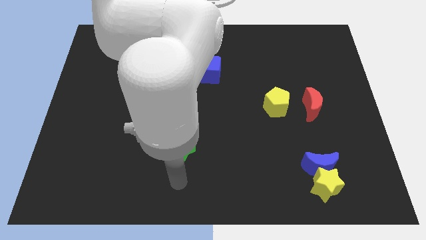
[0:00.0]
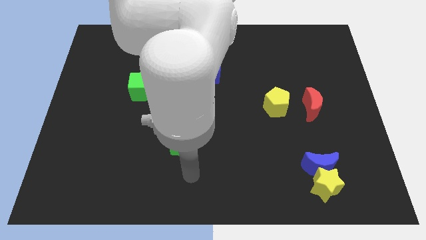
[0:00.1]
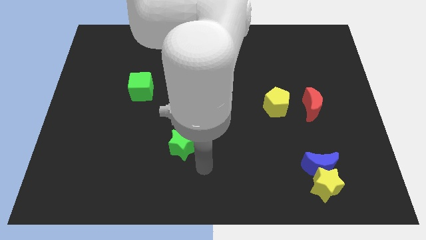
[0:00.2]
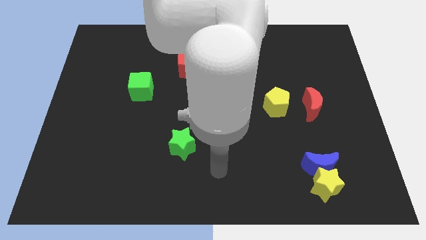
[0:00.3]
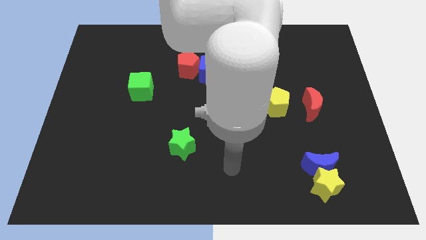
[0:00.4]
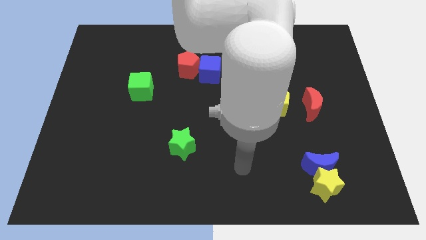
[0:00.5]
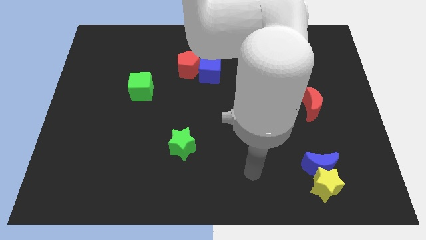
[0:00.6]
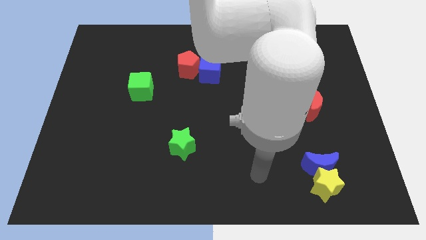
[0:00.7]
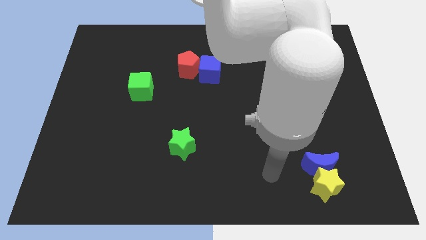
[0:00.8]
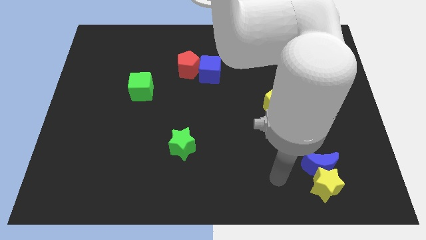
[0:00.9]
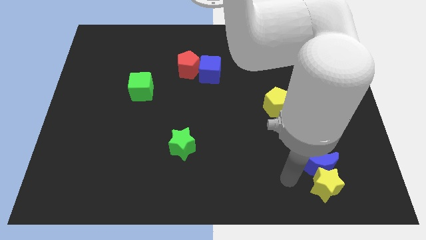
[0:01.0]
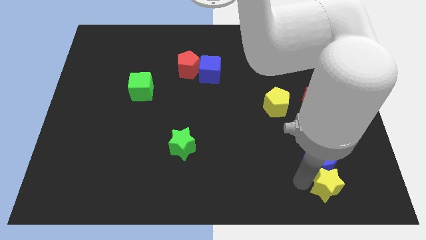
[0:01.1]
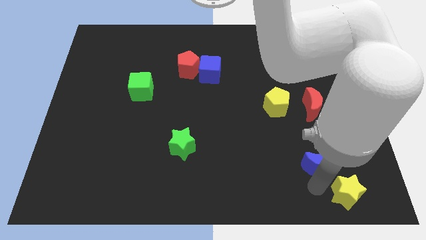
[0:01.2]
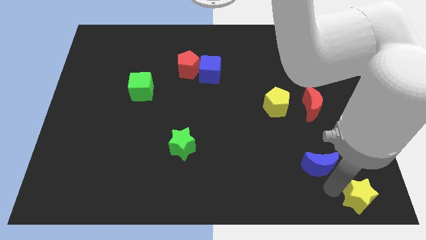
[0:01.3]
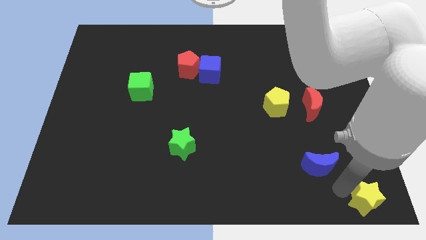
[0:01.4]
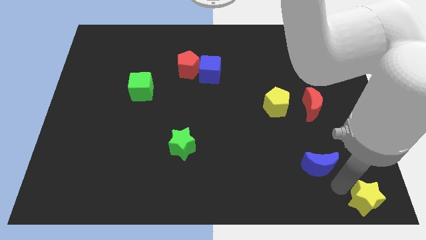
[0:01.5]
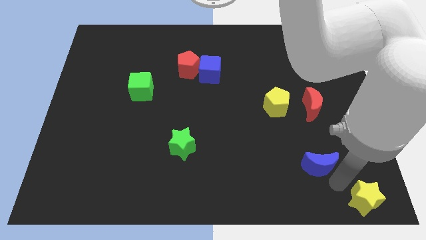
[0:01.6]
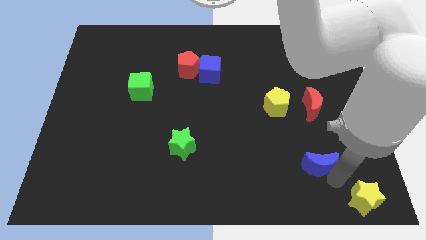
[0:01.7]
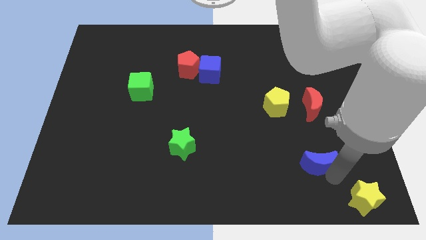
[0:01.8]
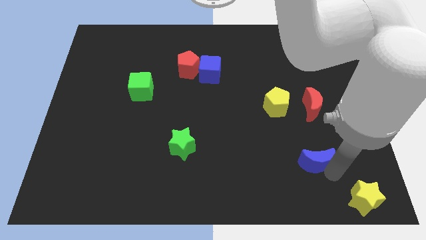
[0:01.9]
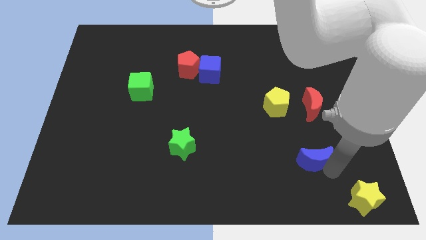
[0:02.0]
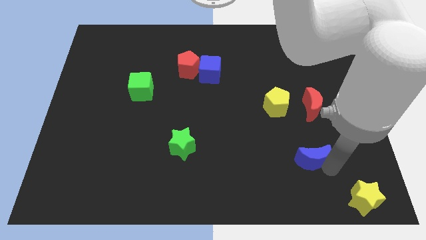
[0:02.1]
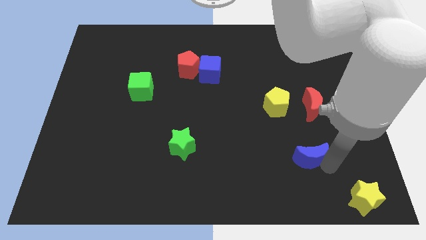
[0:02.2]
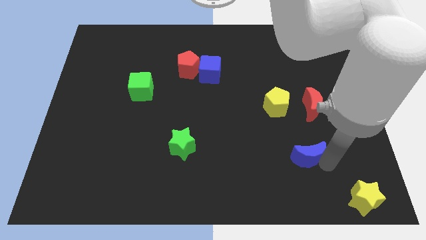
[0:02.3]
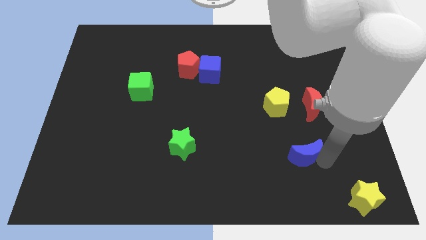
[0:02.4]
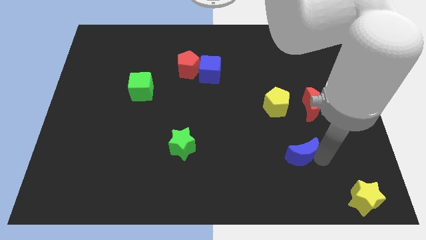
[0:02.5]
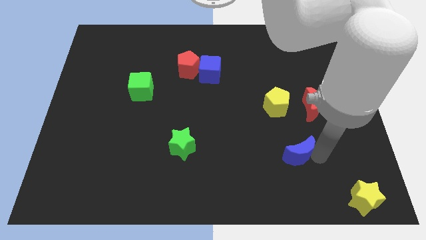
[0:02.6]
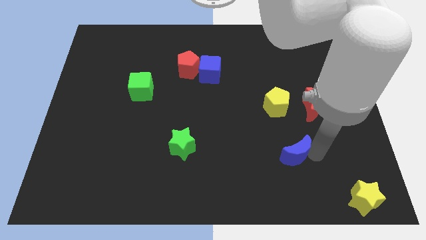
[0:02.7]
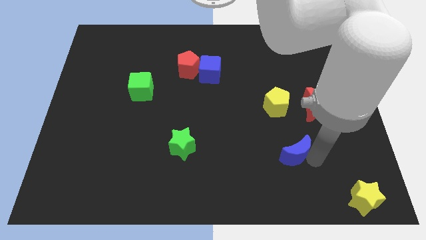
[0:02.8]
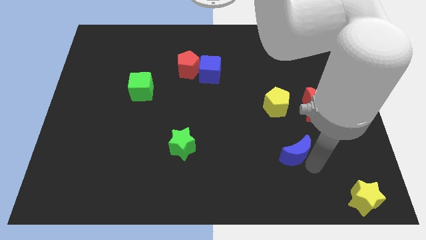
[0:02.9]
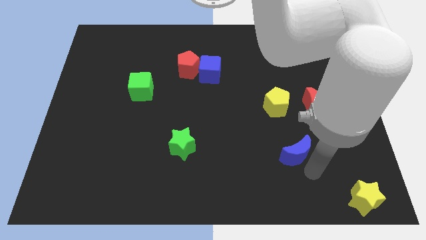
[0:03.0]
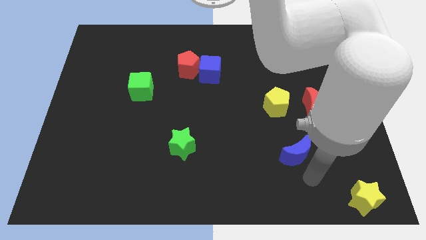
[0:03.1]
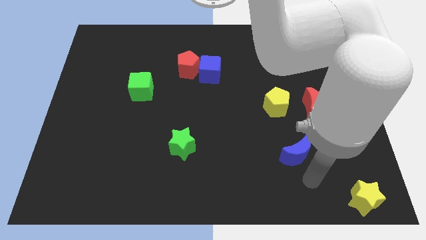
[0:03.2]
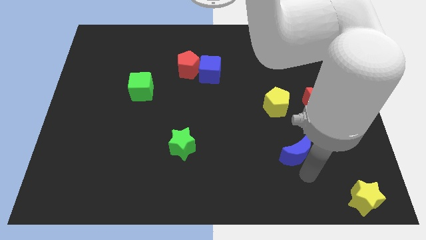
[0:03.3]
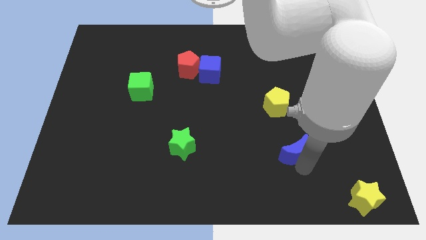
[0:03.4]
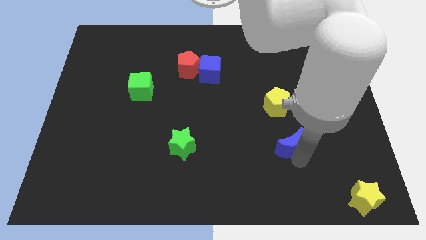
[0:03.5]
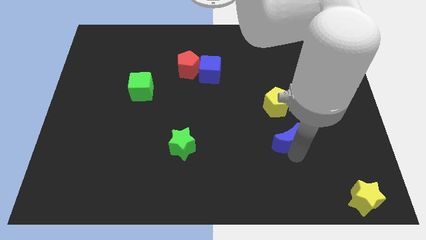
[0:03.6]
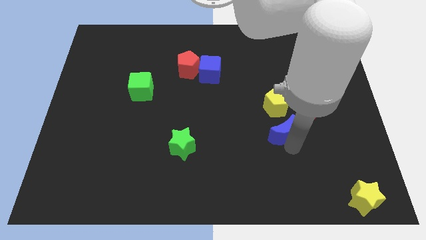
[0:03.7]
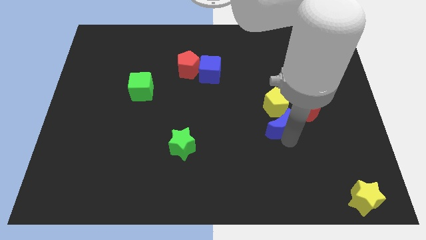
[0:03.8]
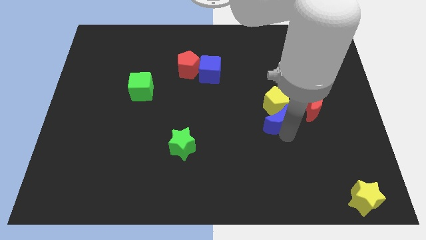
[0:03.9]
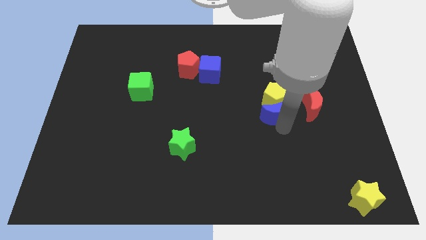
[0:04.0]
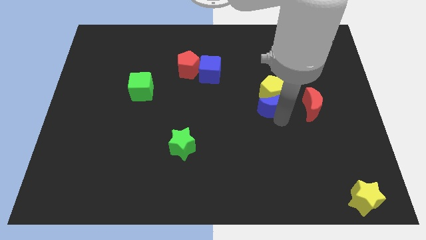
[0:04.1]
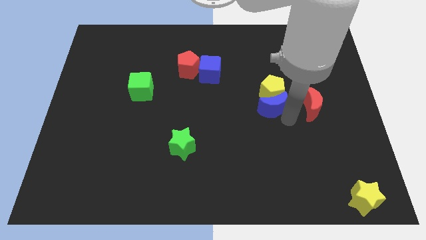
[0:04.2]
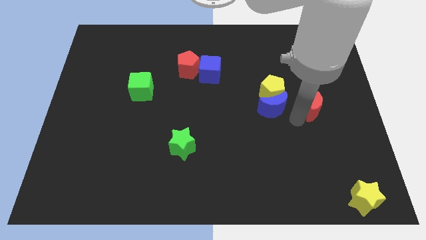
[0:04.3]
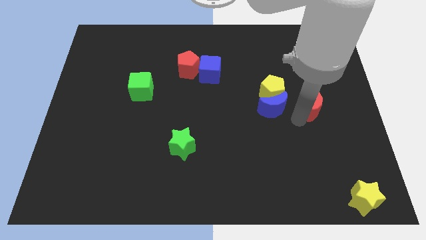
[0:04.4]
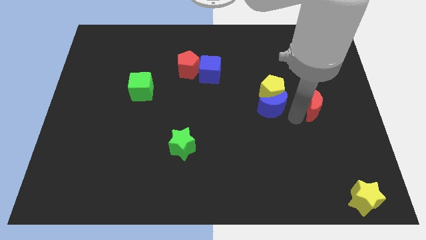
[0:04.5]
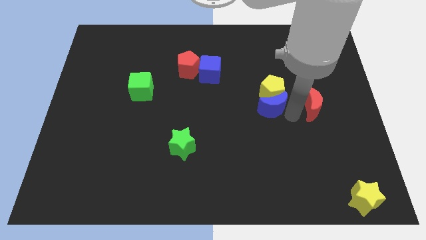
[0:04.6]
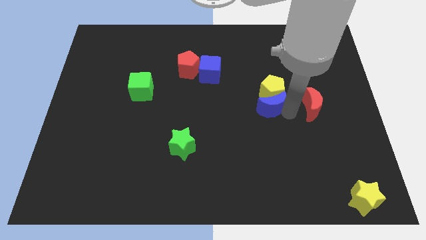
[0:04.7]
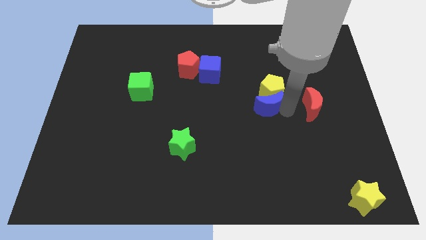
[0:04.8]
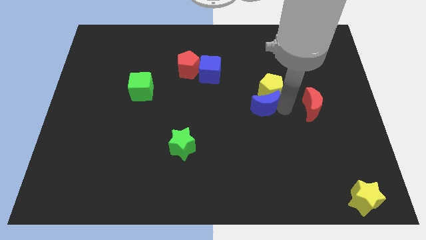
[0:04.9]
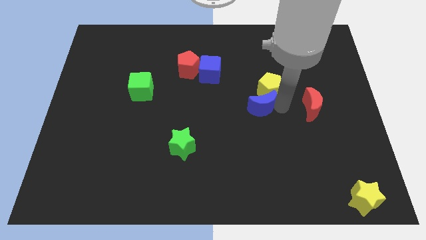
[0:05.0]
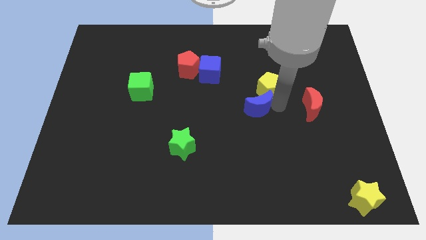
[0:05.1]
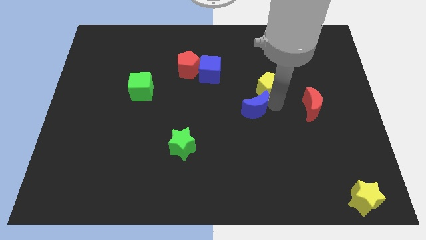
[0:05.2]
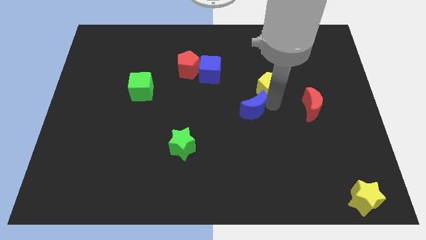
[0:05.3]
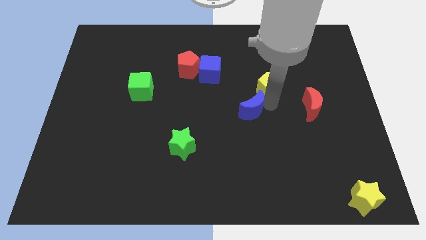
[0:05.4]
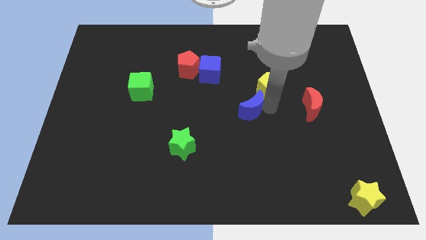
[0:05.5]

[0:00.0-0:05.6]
move the blue moon diagonally upwards and to the left

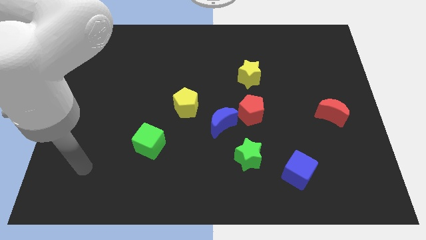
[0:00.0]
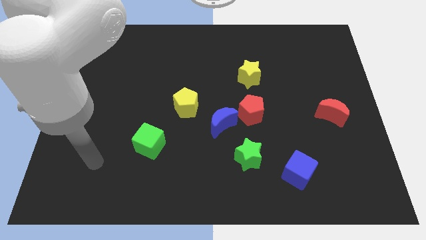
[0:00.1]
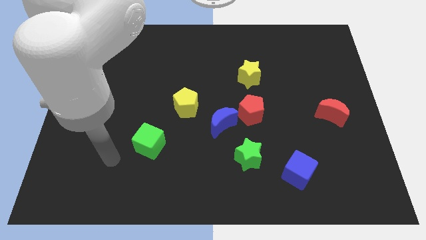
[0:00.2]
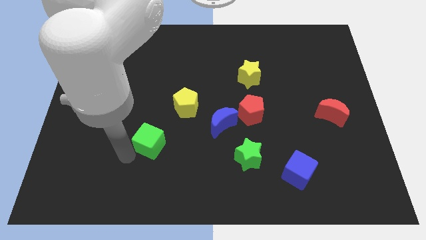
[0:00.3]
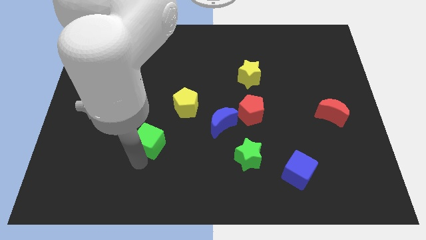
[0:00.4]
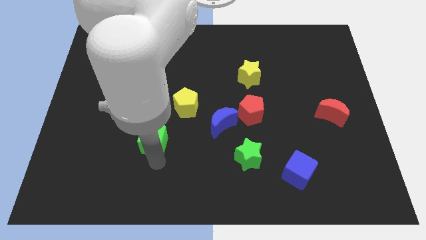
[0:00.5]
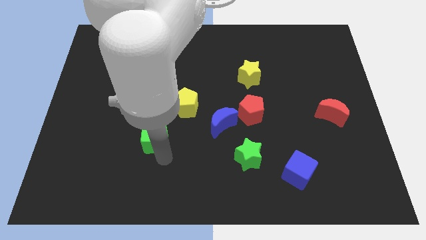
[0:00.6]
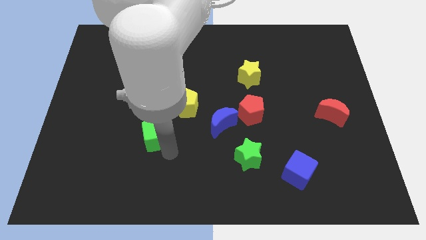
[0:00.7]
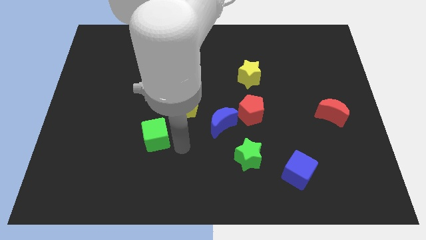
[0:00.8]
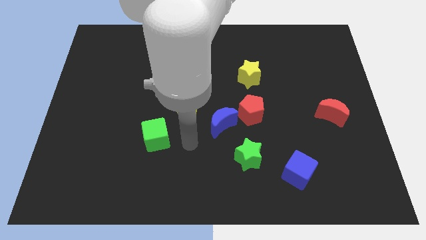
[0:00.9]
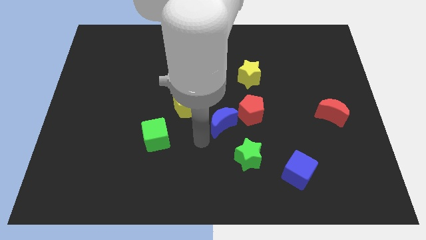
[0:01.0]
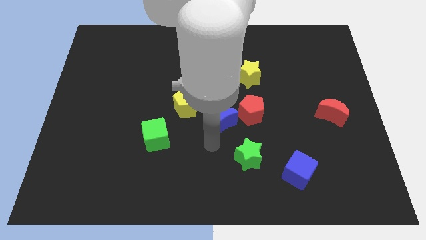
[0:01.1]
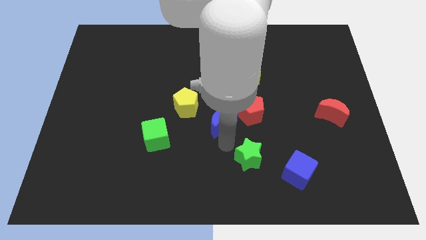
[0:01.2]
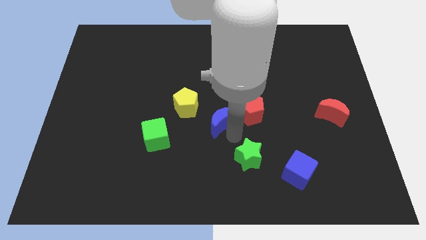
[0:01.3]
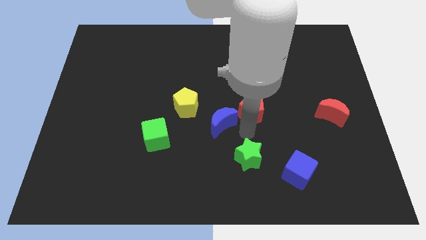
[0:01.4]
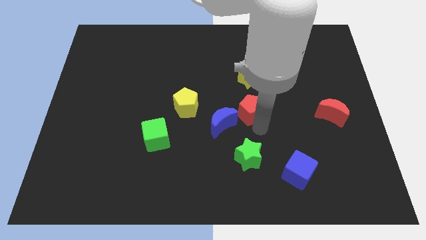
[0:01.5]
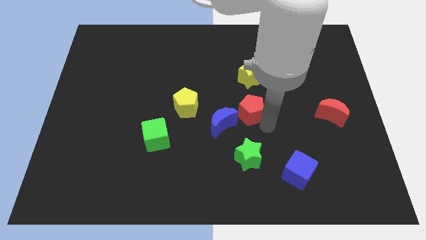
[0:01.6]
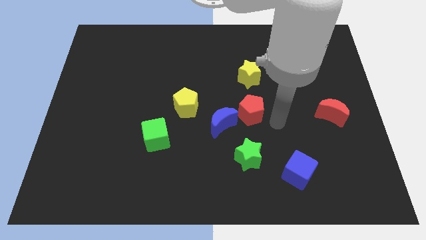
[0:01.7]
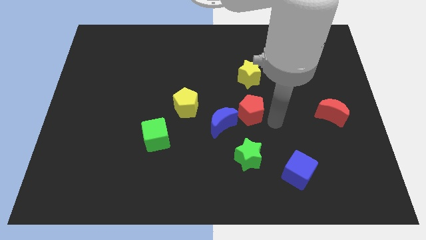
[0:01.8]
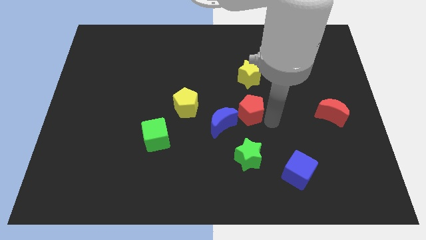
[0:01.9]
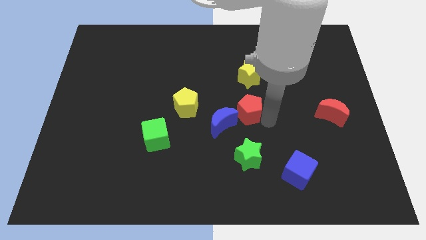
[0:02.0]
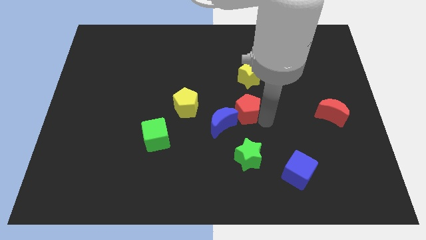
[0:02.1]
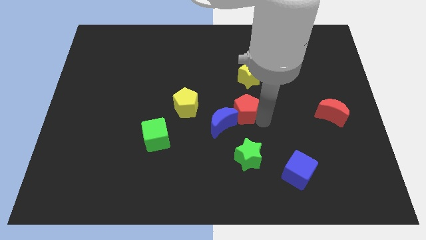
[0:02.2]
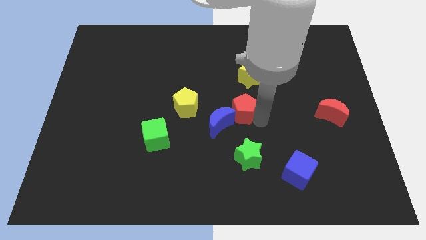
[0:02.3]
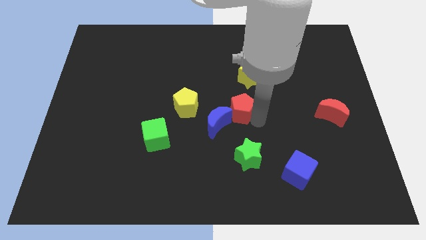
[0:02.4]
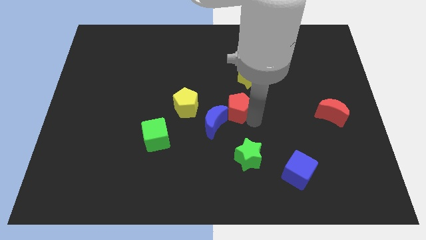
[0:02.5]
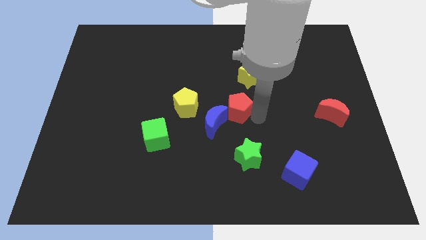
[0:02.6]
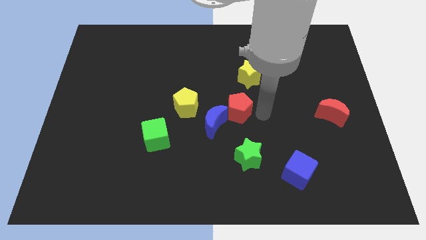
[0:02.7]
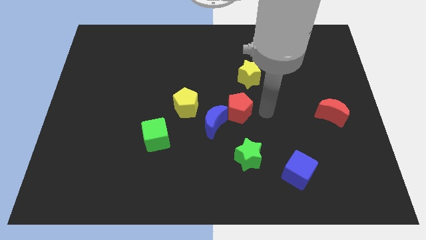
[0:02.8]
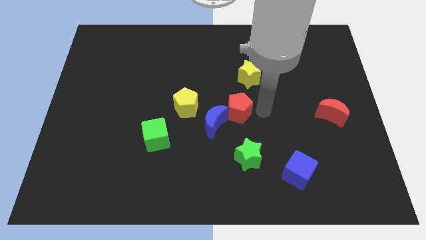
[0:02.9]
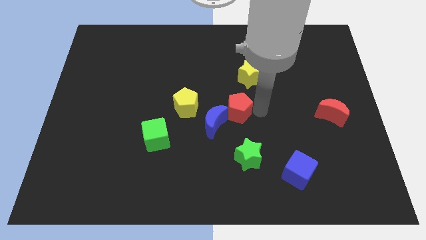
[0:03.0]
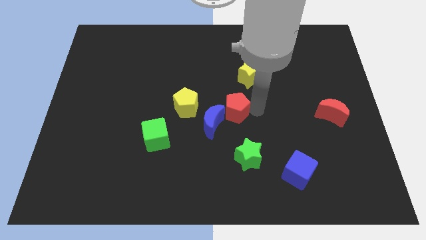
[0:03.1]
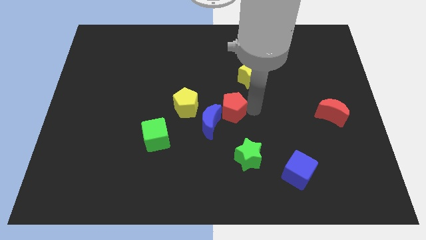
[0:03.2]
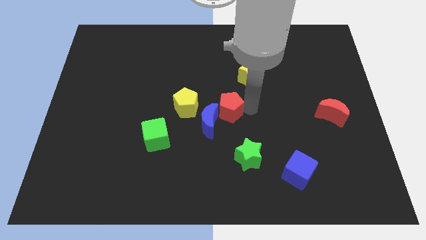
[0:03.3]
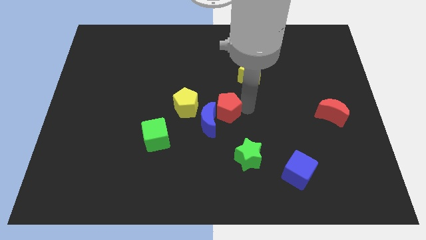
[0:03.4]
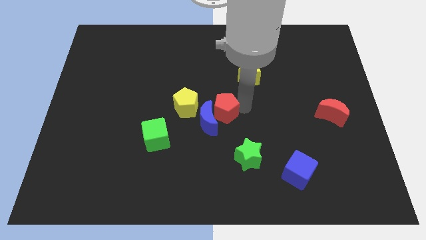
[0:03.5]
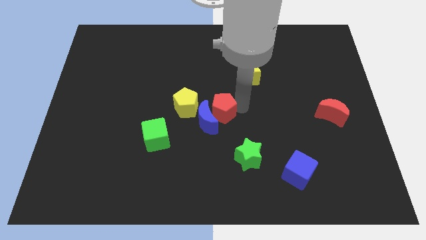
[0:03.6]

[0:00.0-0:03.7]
slightly slide the red pentagon to the left
